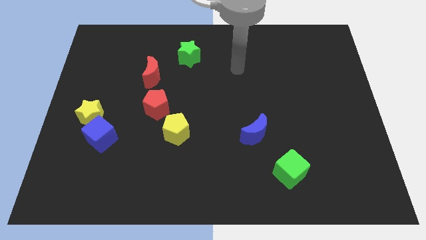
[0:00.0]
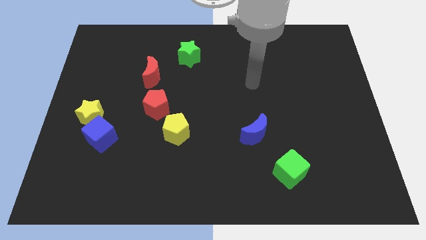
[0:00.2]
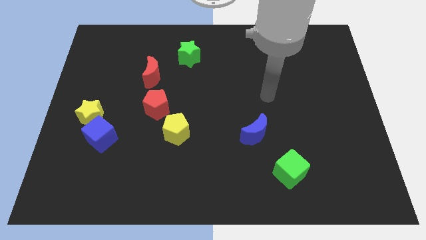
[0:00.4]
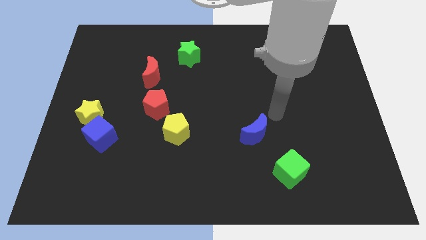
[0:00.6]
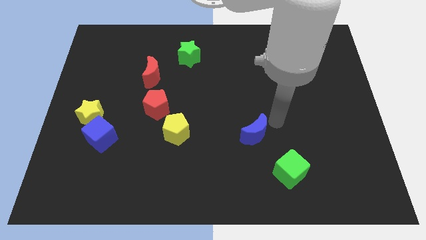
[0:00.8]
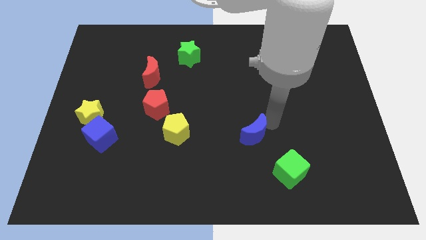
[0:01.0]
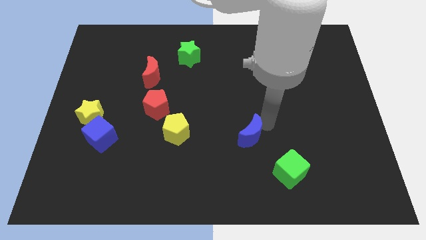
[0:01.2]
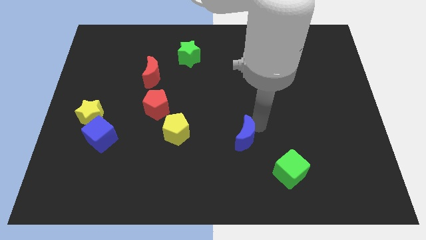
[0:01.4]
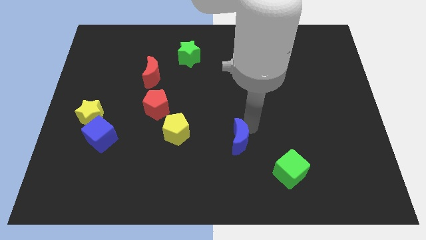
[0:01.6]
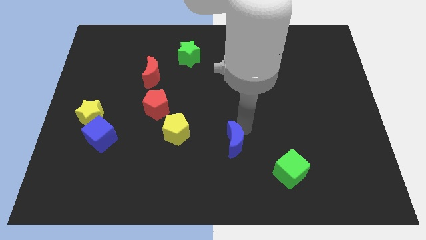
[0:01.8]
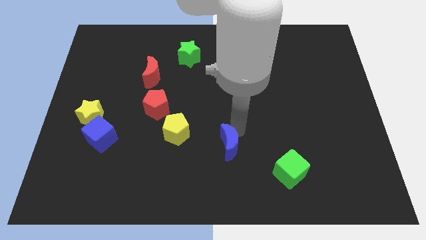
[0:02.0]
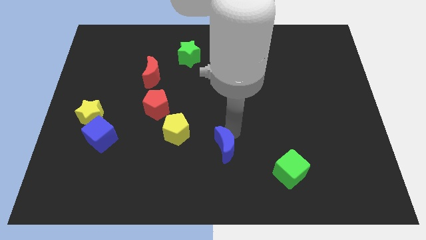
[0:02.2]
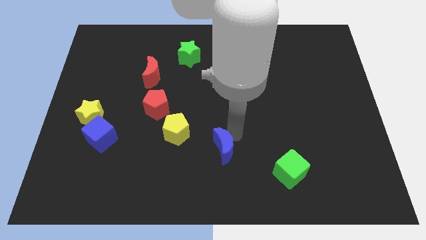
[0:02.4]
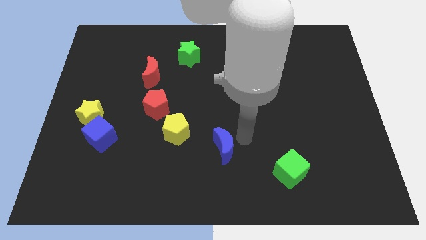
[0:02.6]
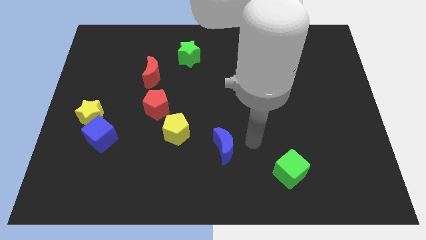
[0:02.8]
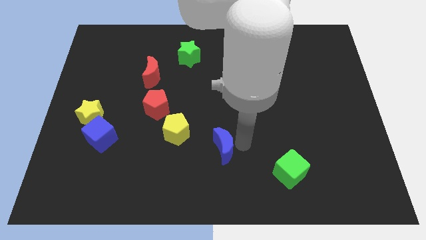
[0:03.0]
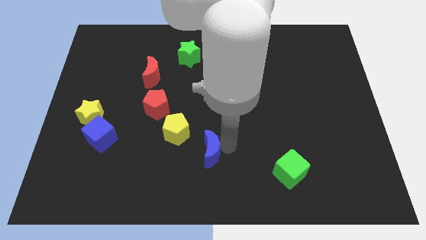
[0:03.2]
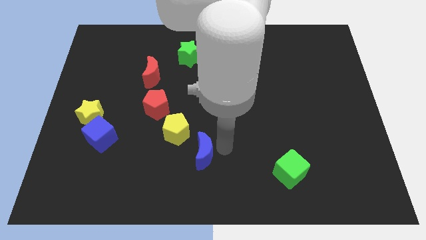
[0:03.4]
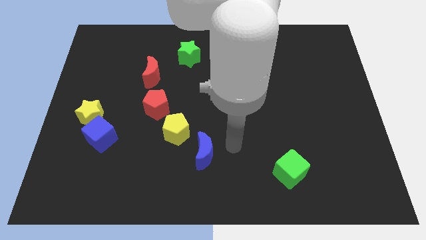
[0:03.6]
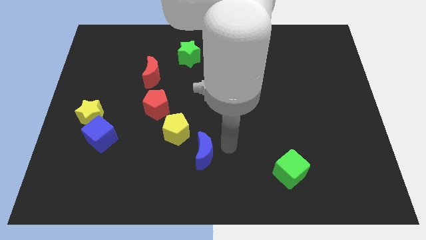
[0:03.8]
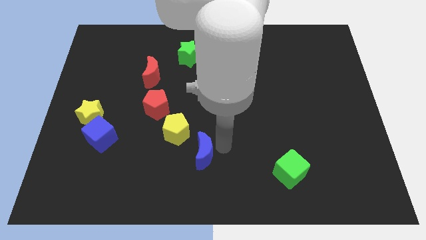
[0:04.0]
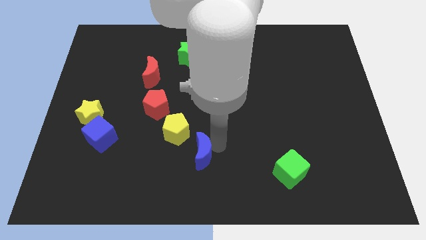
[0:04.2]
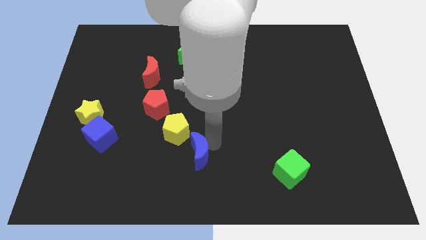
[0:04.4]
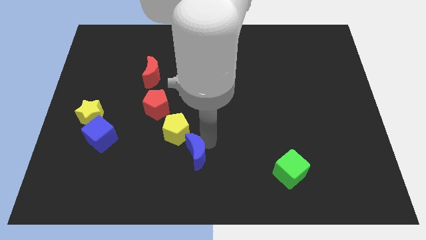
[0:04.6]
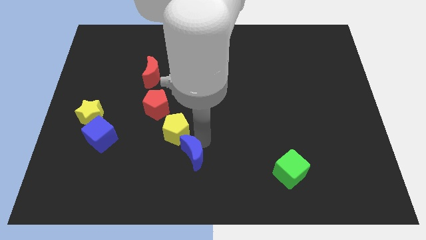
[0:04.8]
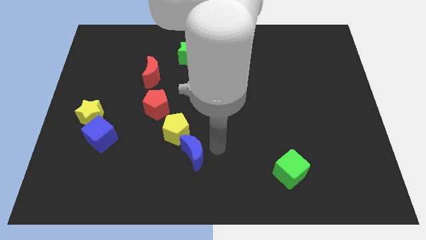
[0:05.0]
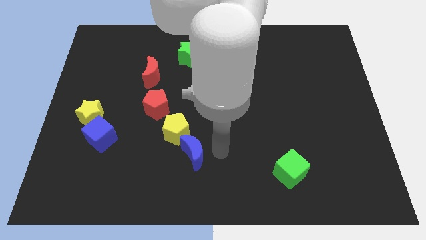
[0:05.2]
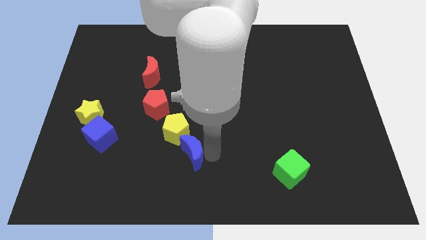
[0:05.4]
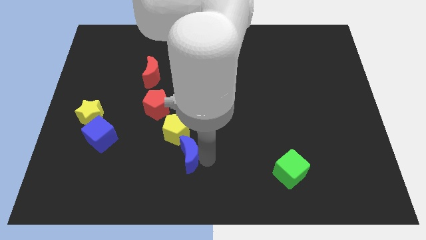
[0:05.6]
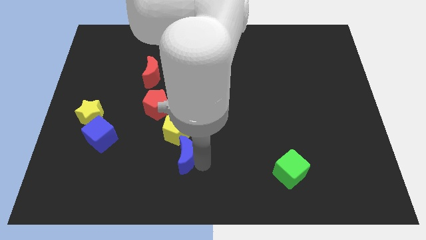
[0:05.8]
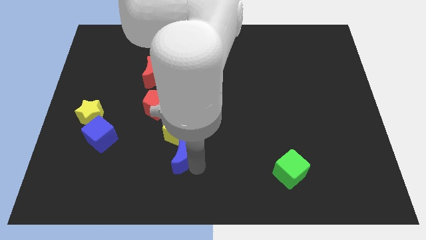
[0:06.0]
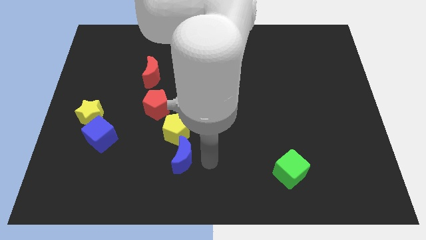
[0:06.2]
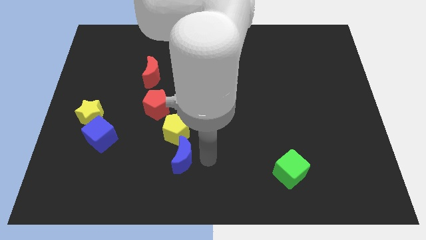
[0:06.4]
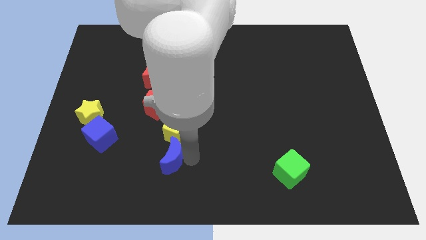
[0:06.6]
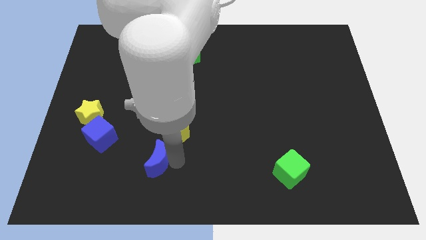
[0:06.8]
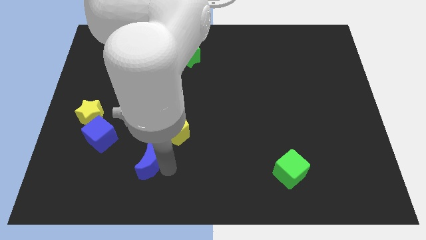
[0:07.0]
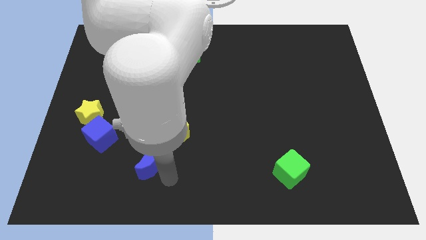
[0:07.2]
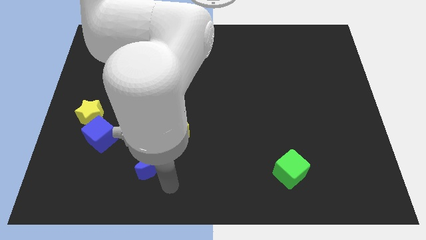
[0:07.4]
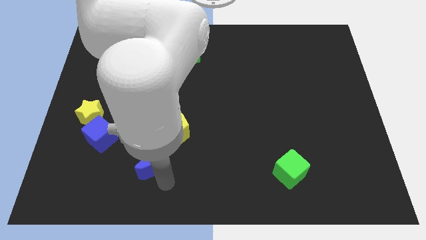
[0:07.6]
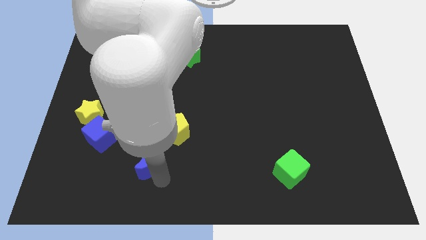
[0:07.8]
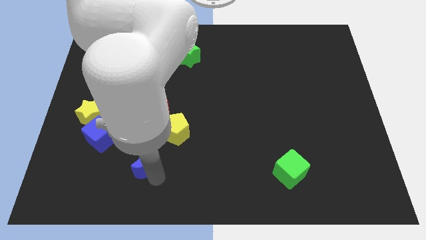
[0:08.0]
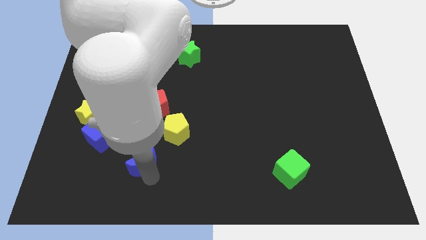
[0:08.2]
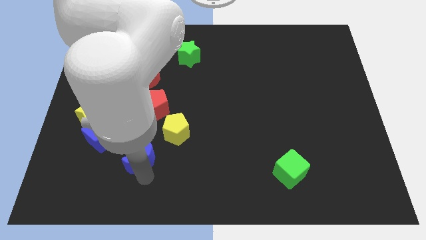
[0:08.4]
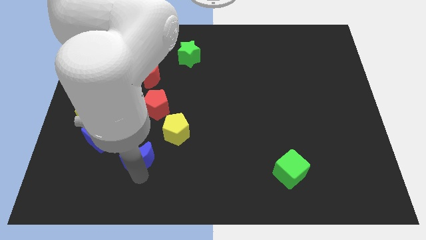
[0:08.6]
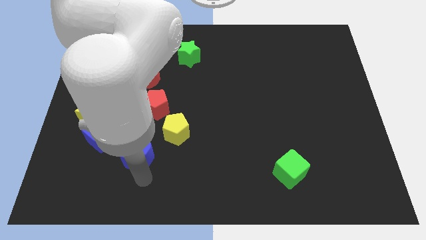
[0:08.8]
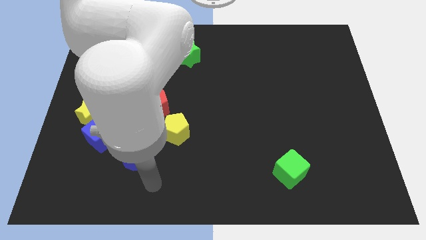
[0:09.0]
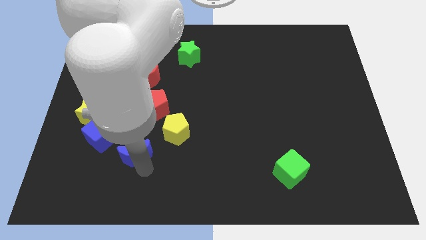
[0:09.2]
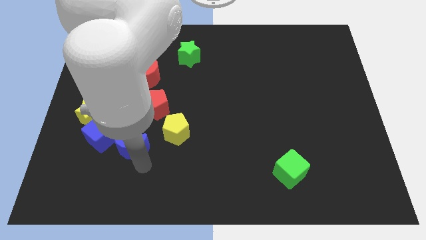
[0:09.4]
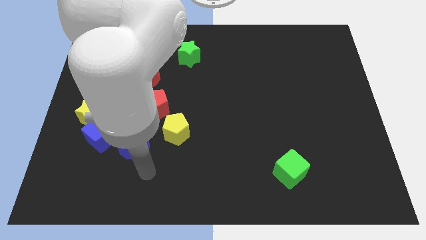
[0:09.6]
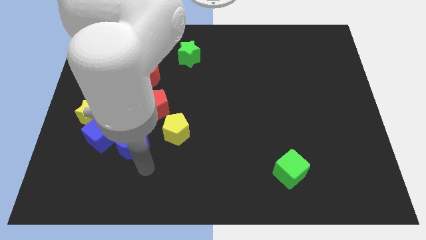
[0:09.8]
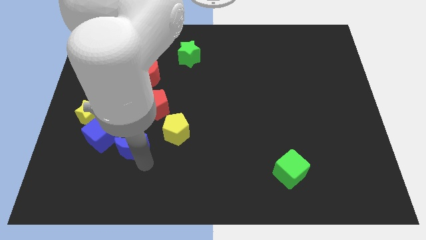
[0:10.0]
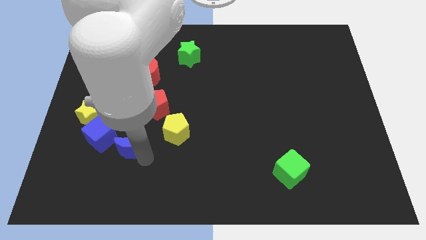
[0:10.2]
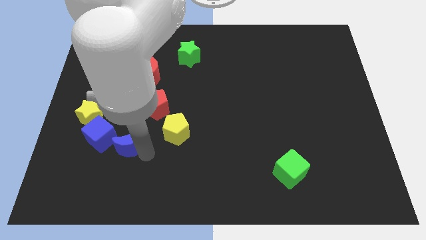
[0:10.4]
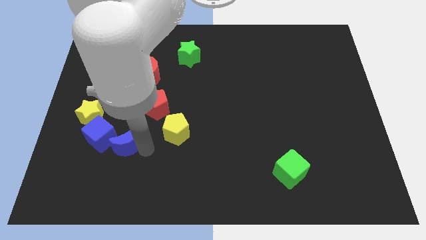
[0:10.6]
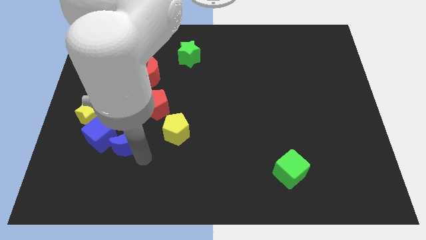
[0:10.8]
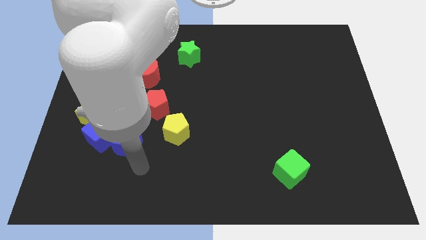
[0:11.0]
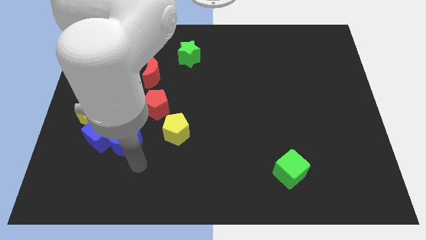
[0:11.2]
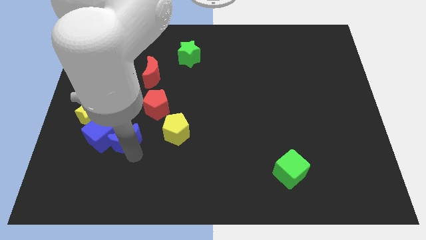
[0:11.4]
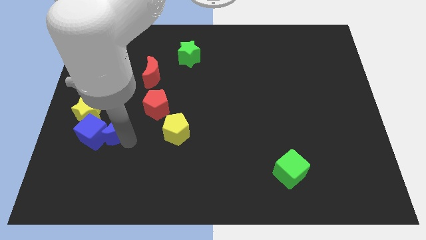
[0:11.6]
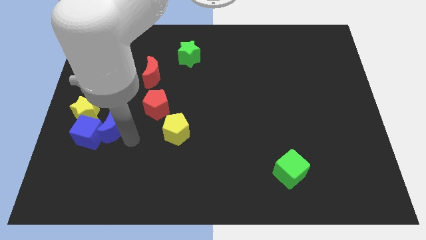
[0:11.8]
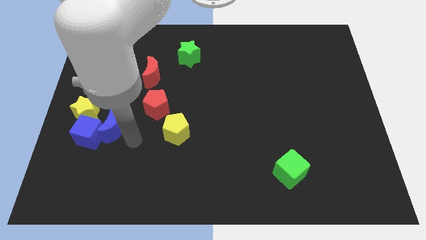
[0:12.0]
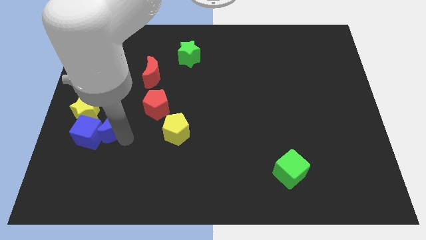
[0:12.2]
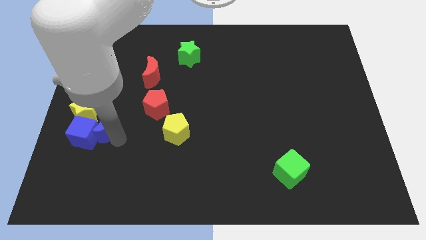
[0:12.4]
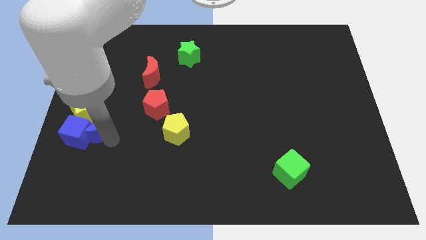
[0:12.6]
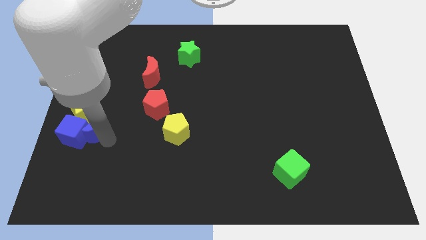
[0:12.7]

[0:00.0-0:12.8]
push the blue moon towards the yellow star

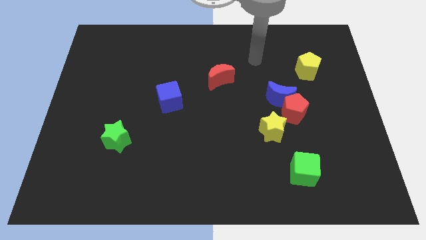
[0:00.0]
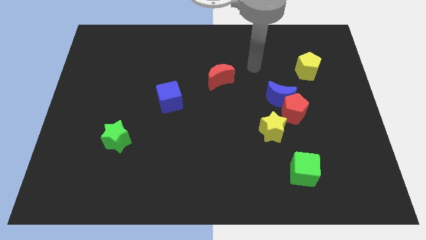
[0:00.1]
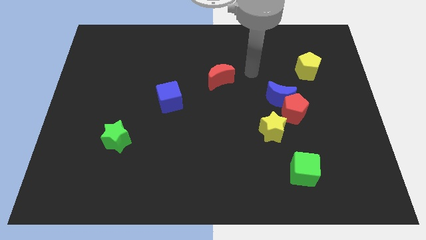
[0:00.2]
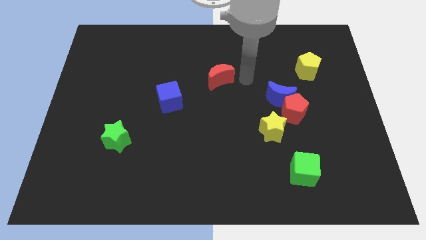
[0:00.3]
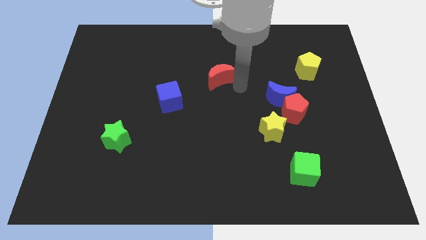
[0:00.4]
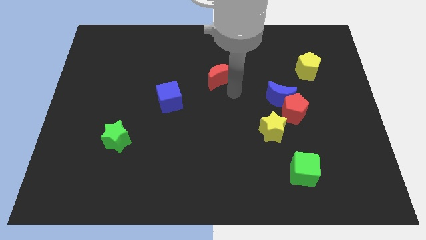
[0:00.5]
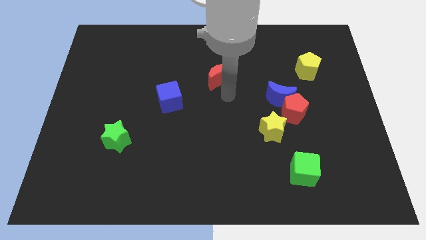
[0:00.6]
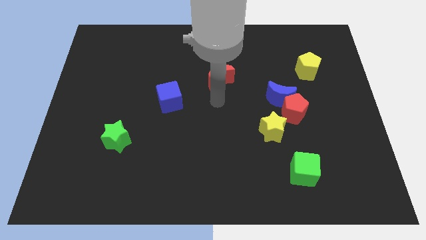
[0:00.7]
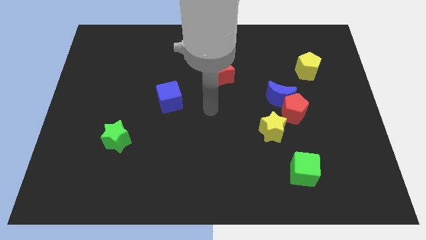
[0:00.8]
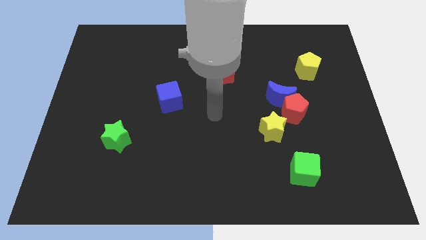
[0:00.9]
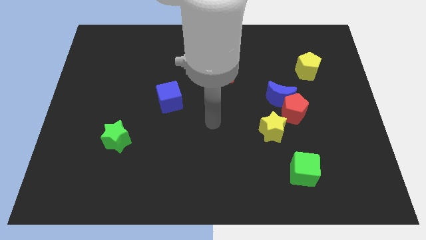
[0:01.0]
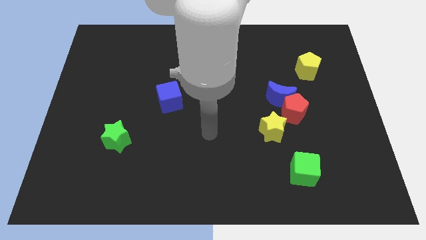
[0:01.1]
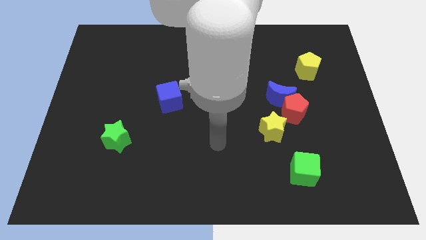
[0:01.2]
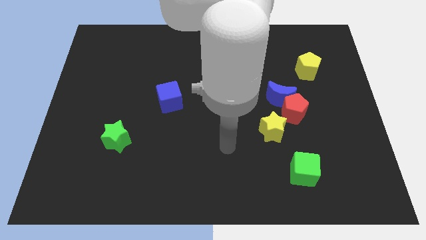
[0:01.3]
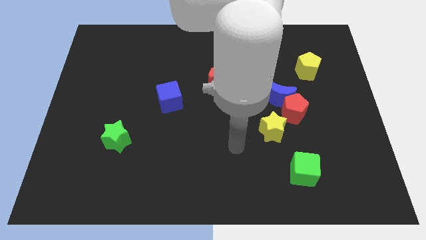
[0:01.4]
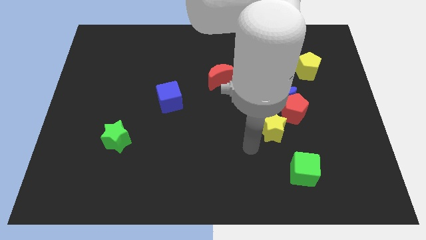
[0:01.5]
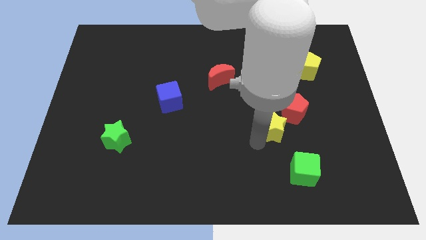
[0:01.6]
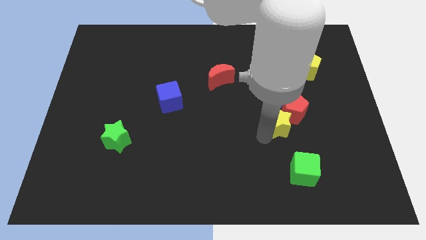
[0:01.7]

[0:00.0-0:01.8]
push the yellow star close to the red pentagon
